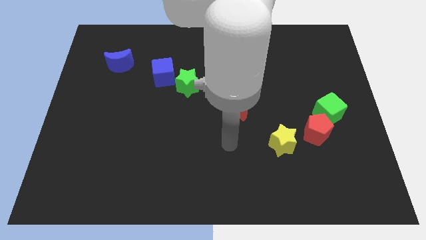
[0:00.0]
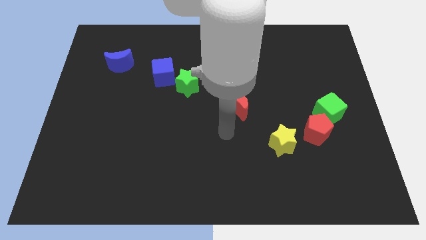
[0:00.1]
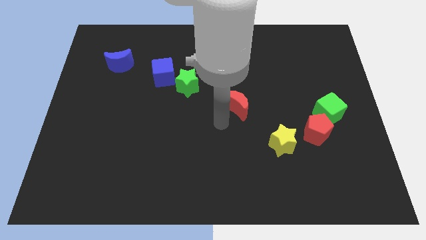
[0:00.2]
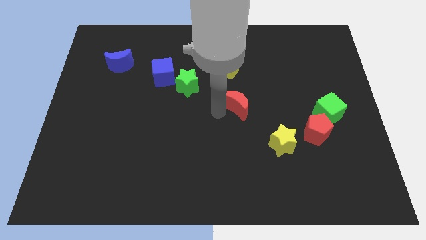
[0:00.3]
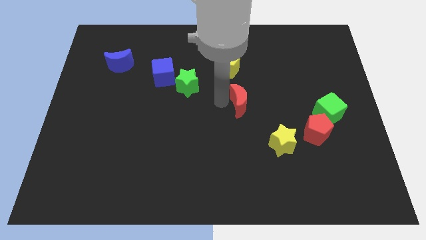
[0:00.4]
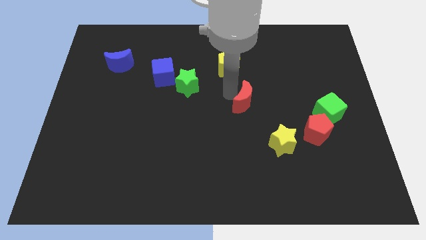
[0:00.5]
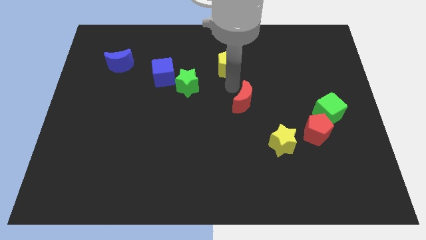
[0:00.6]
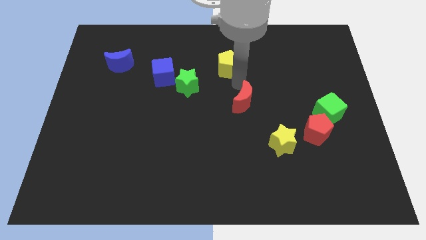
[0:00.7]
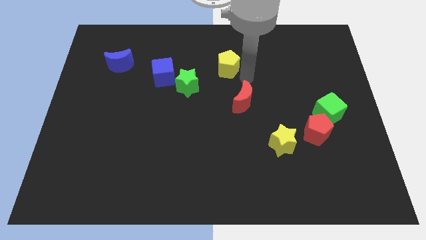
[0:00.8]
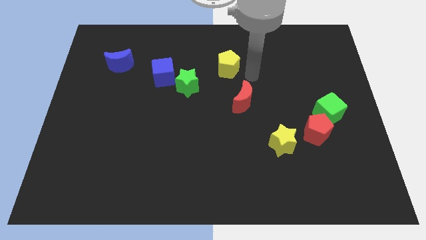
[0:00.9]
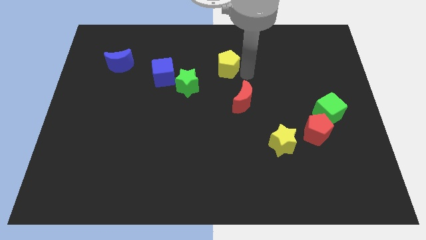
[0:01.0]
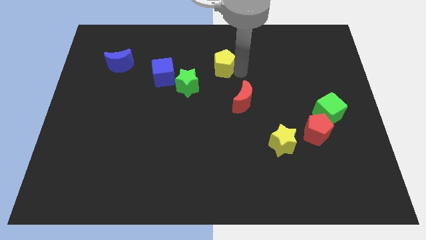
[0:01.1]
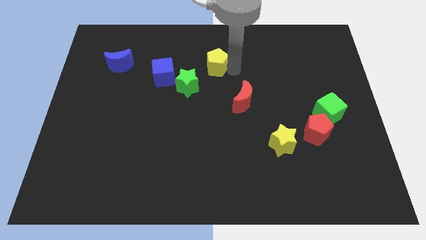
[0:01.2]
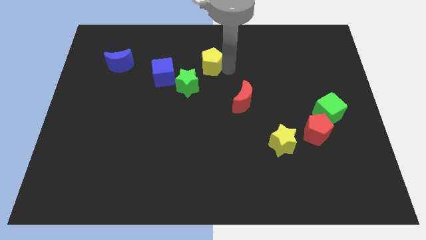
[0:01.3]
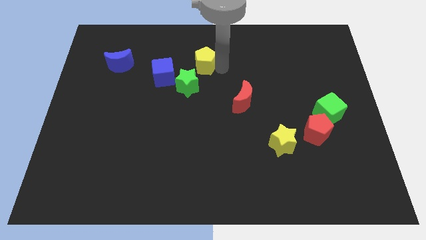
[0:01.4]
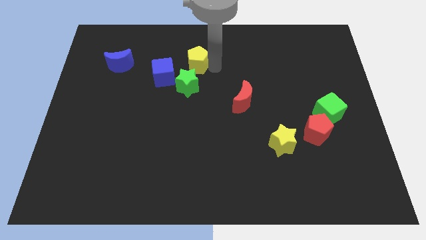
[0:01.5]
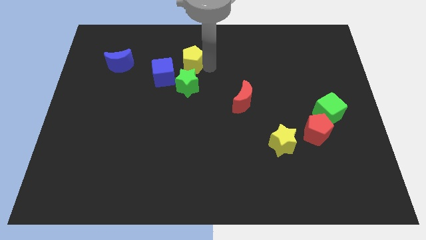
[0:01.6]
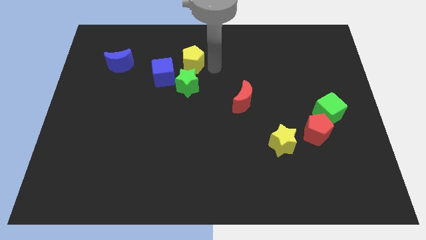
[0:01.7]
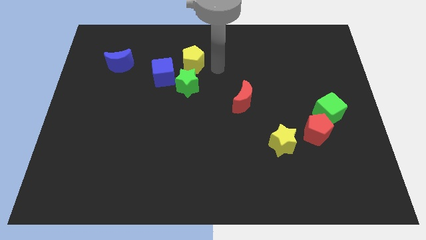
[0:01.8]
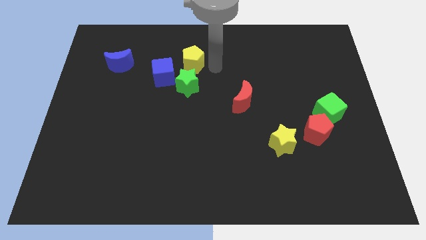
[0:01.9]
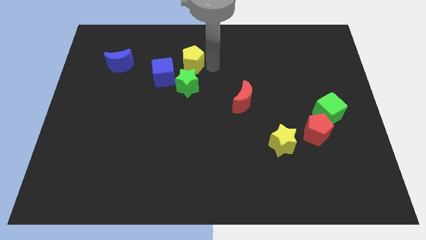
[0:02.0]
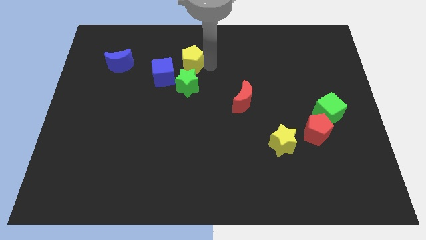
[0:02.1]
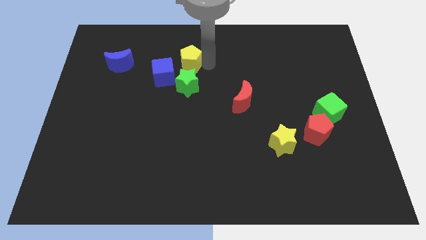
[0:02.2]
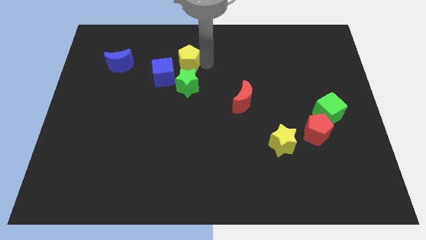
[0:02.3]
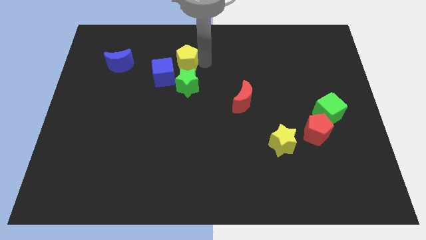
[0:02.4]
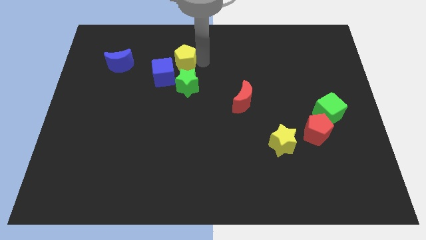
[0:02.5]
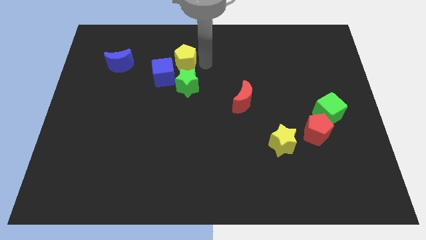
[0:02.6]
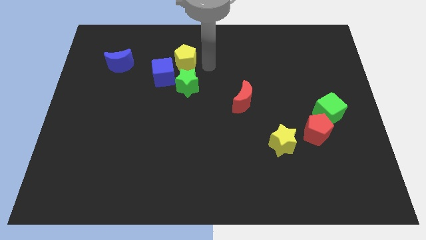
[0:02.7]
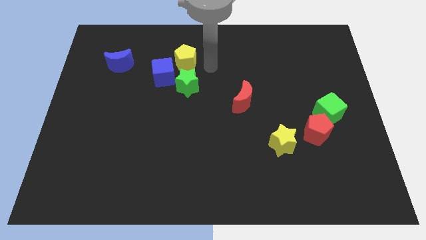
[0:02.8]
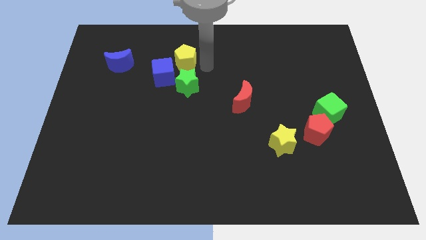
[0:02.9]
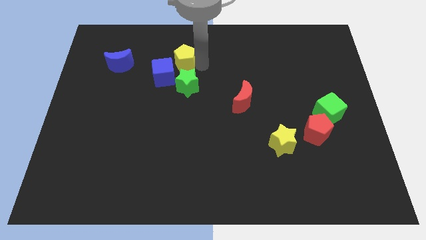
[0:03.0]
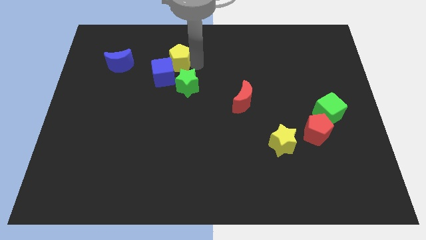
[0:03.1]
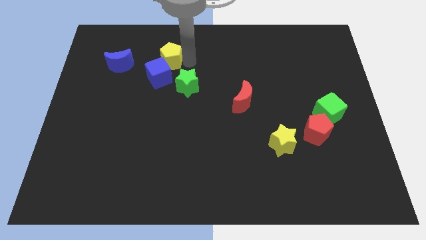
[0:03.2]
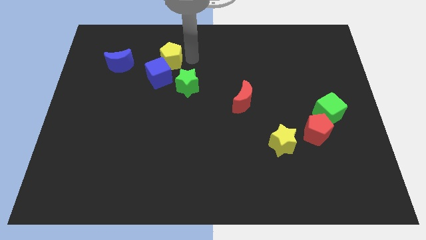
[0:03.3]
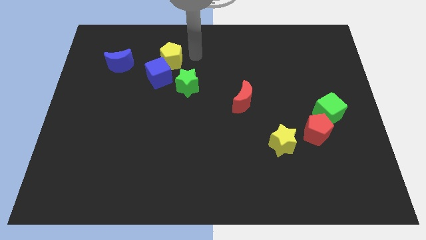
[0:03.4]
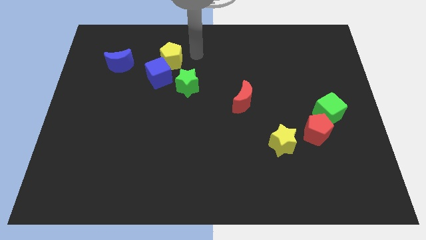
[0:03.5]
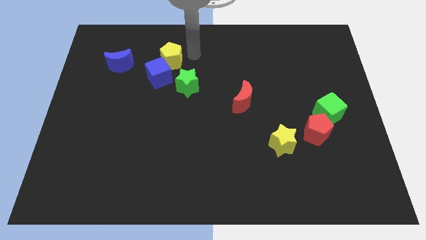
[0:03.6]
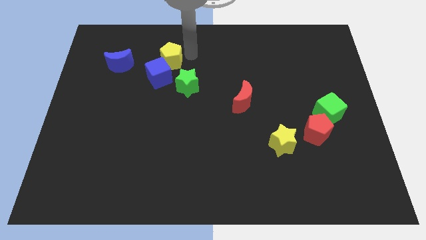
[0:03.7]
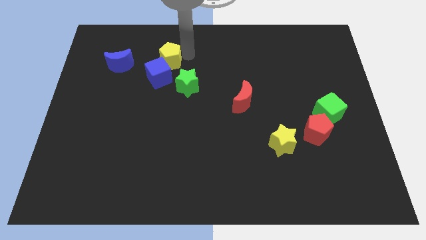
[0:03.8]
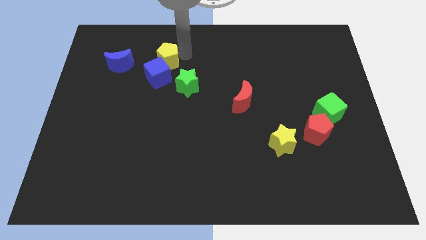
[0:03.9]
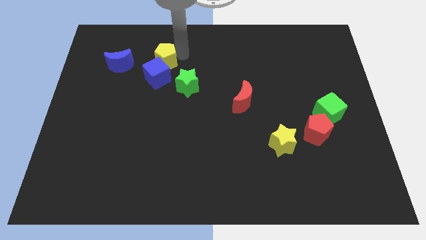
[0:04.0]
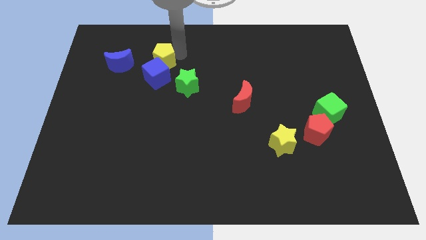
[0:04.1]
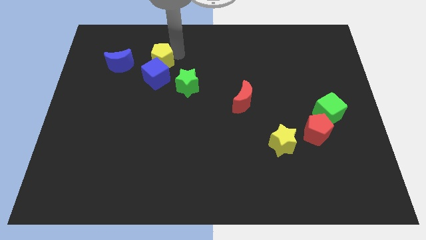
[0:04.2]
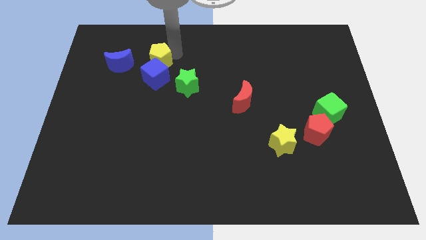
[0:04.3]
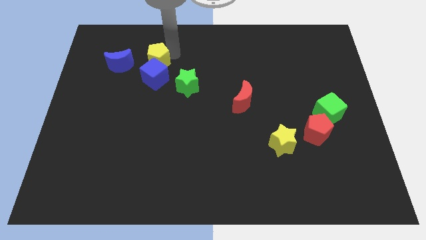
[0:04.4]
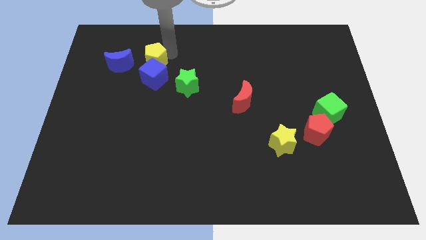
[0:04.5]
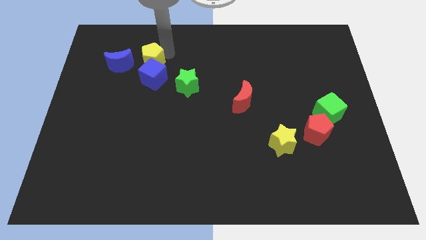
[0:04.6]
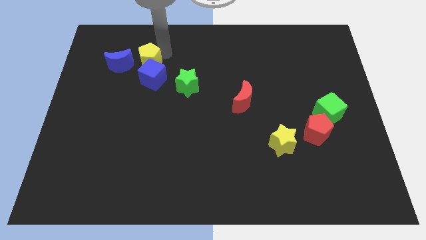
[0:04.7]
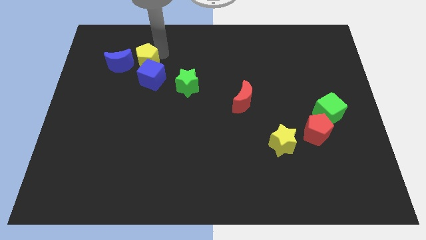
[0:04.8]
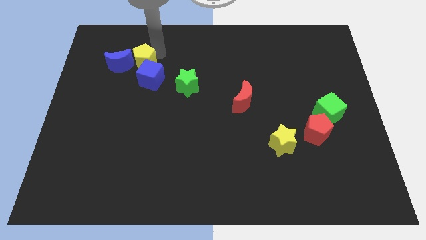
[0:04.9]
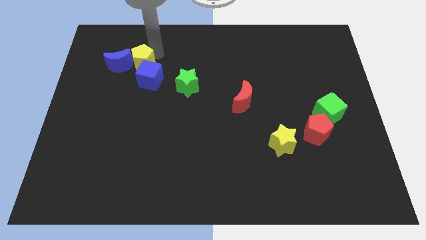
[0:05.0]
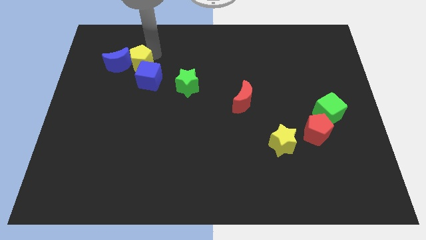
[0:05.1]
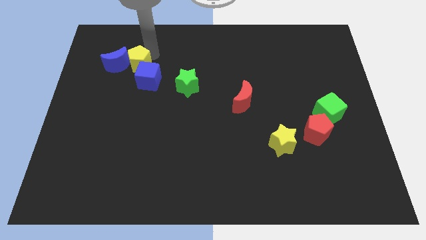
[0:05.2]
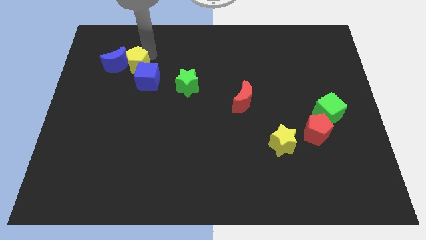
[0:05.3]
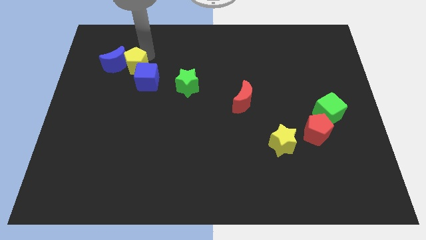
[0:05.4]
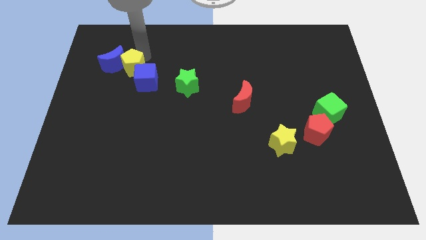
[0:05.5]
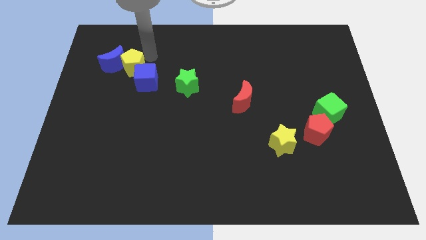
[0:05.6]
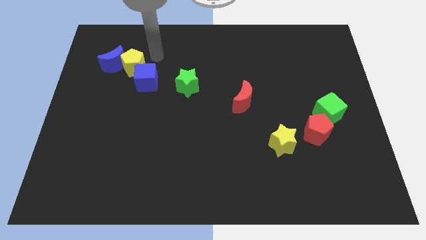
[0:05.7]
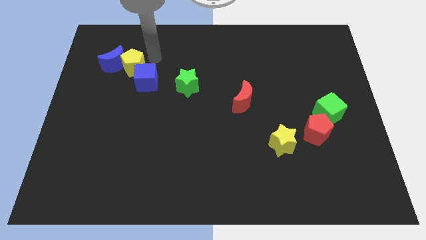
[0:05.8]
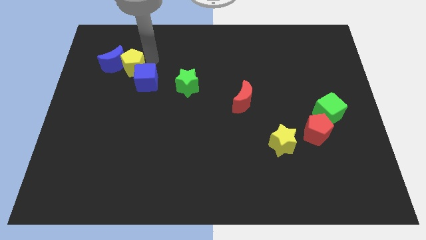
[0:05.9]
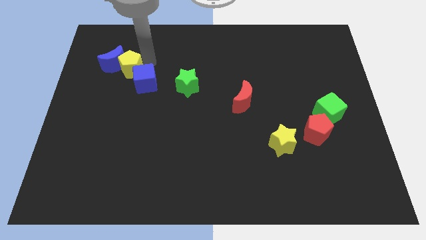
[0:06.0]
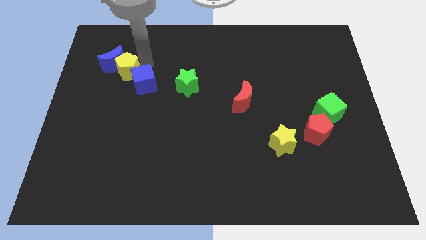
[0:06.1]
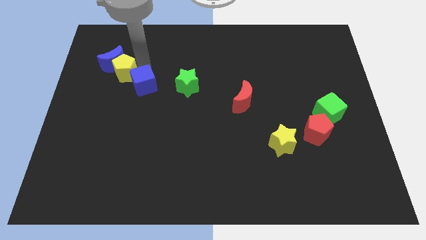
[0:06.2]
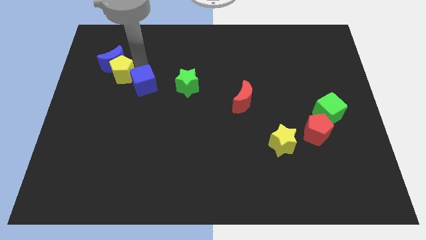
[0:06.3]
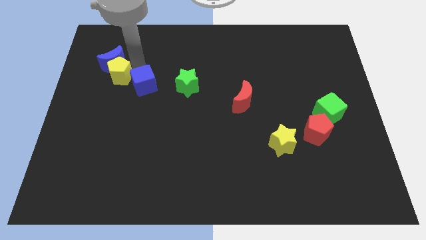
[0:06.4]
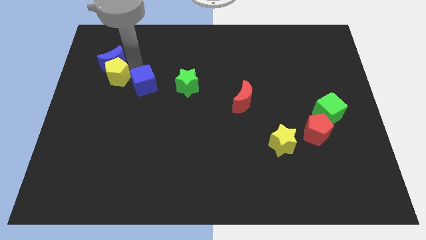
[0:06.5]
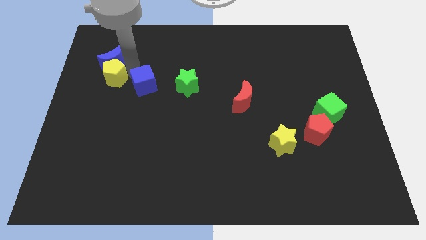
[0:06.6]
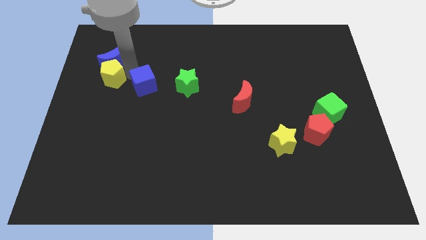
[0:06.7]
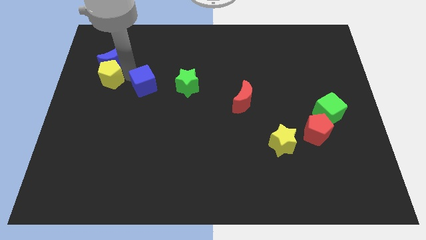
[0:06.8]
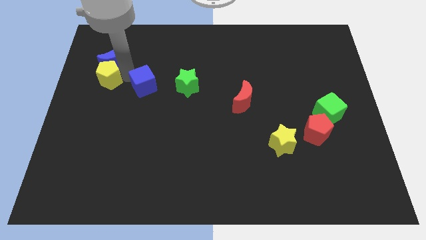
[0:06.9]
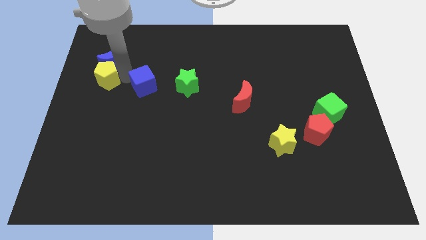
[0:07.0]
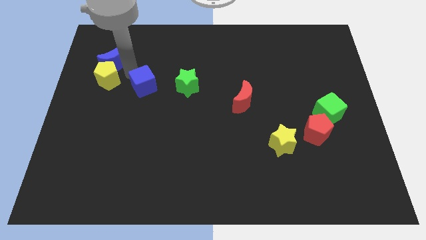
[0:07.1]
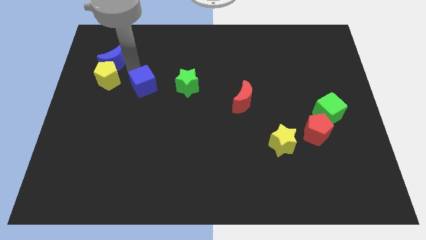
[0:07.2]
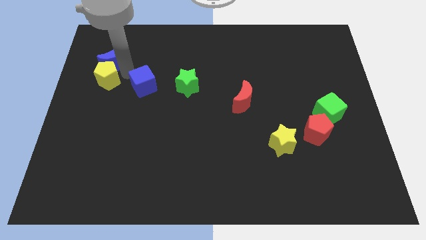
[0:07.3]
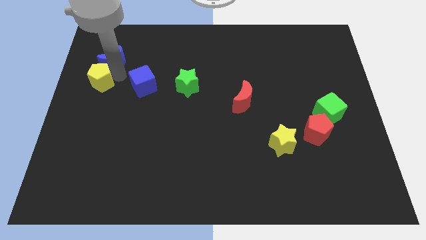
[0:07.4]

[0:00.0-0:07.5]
move the yellow pentagon to the left side
